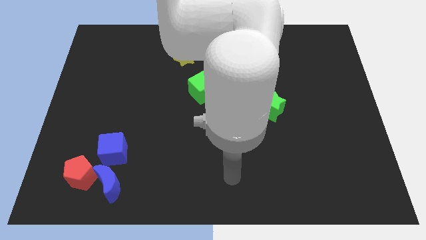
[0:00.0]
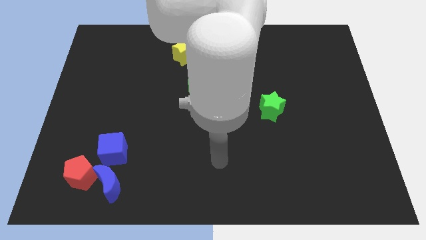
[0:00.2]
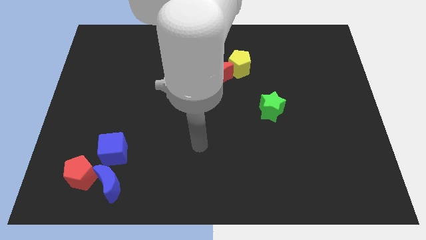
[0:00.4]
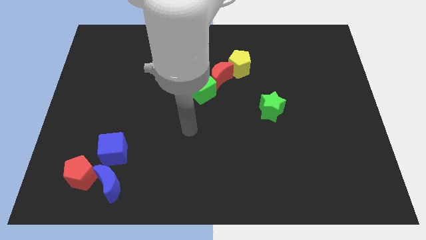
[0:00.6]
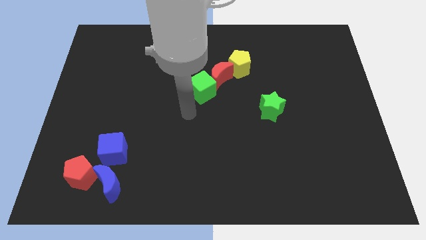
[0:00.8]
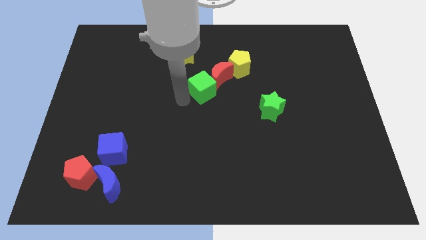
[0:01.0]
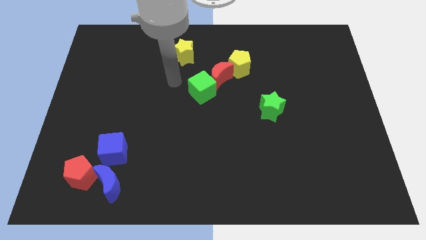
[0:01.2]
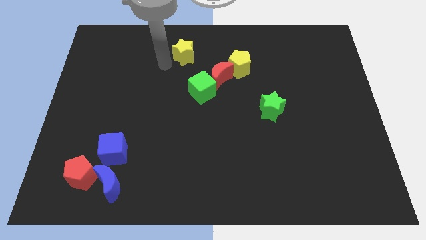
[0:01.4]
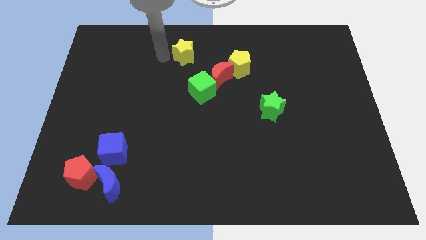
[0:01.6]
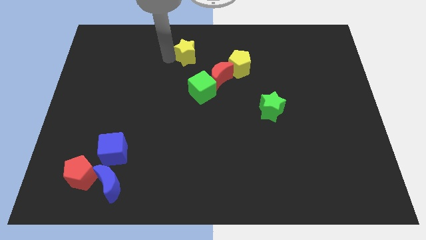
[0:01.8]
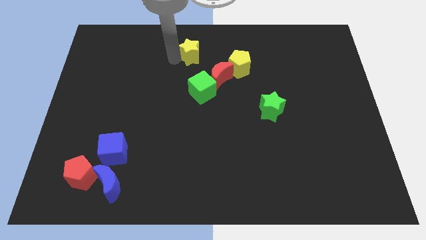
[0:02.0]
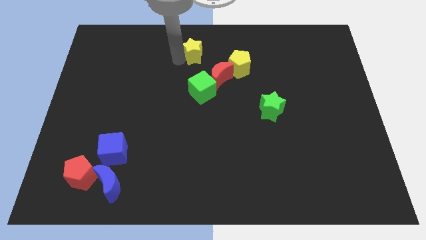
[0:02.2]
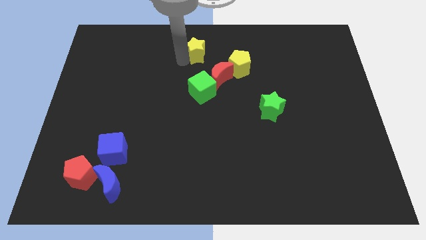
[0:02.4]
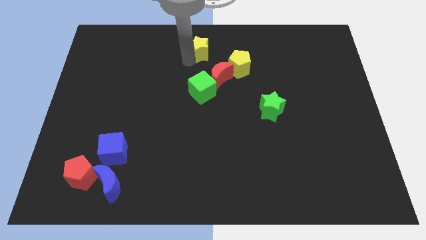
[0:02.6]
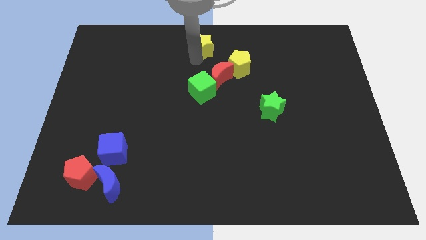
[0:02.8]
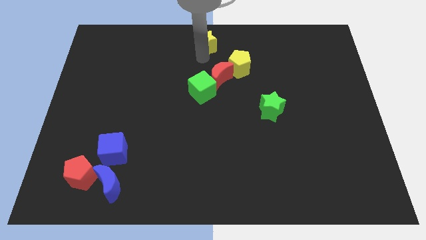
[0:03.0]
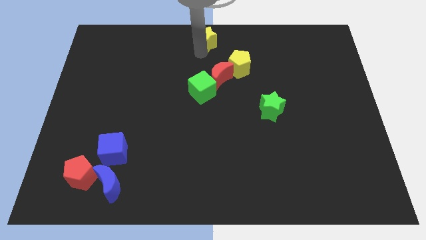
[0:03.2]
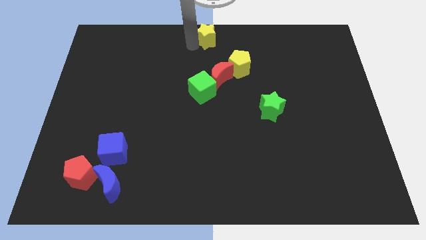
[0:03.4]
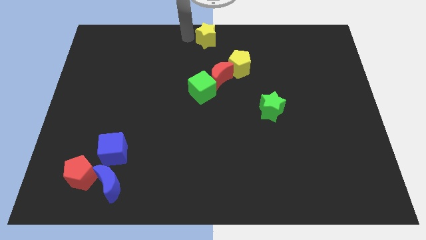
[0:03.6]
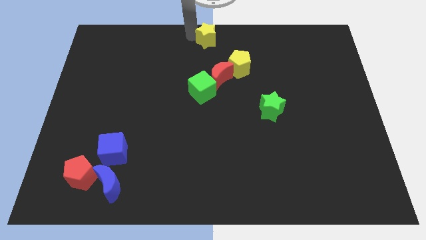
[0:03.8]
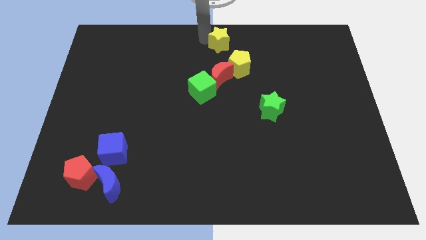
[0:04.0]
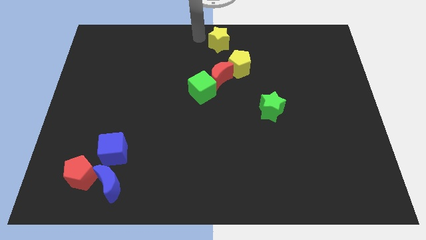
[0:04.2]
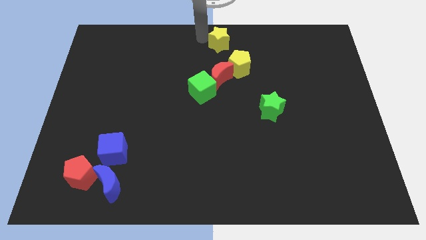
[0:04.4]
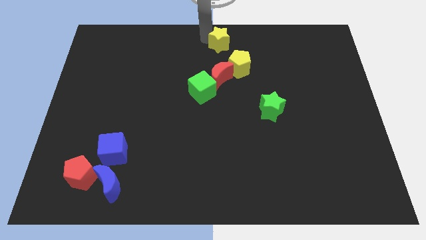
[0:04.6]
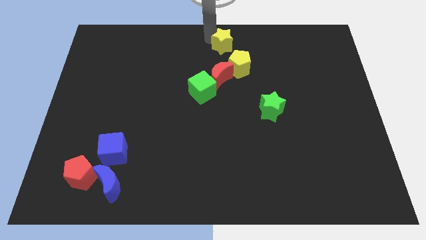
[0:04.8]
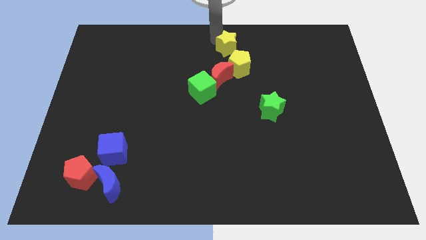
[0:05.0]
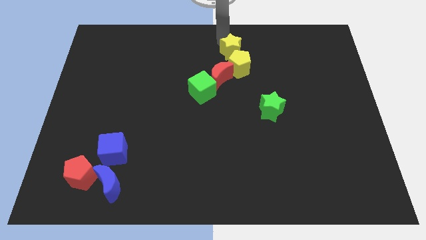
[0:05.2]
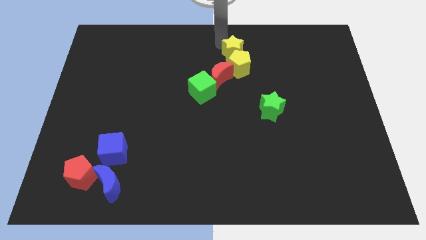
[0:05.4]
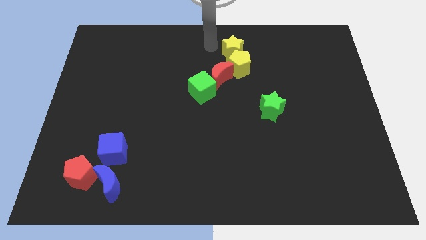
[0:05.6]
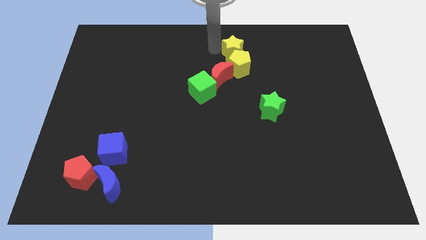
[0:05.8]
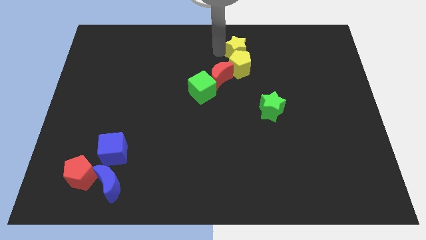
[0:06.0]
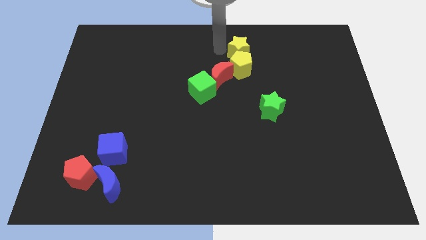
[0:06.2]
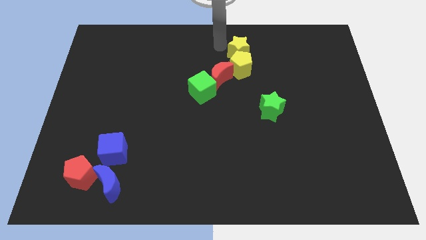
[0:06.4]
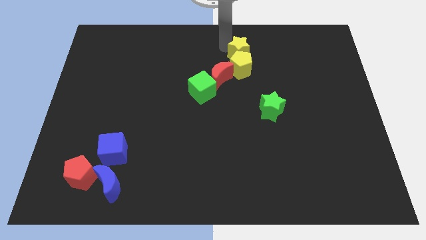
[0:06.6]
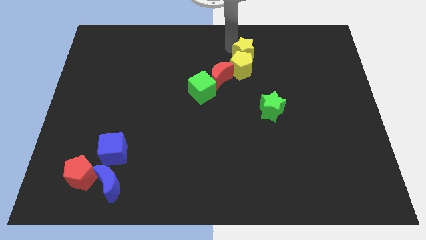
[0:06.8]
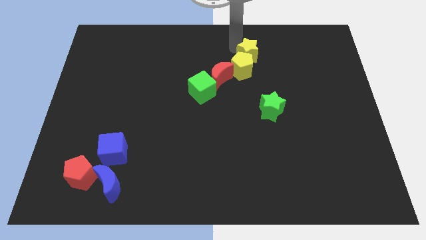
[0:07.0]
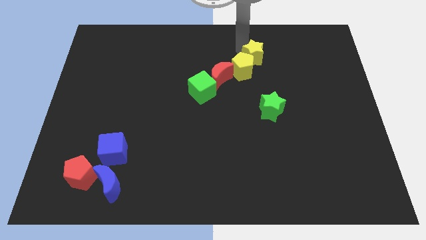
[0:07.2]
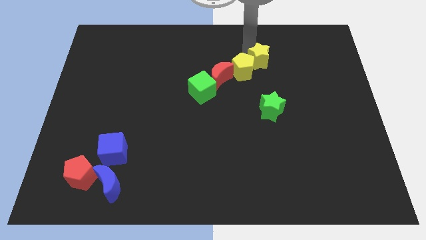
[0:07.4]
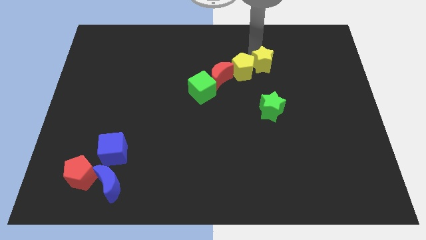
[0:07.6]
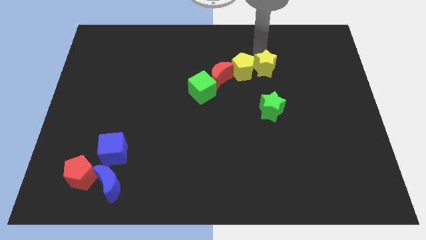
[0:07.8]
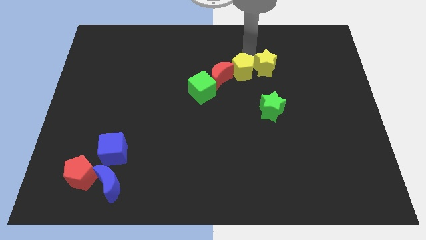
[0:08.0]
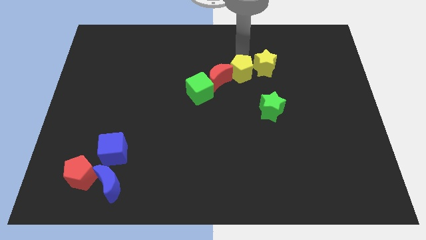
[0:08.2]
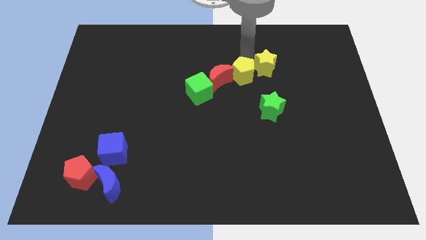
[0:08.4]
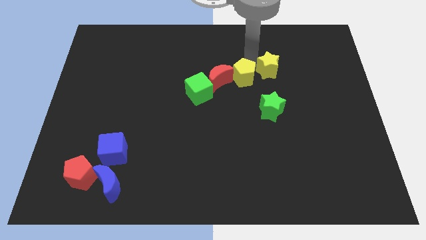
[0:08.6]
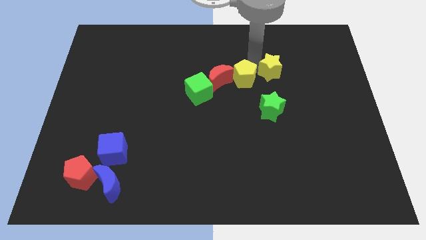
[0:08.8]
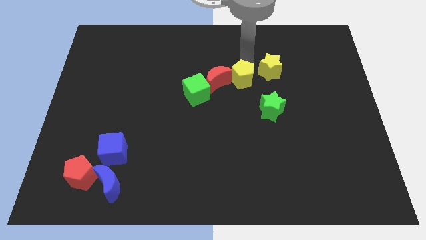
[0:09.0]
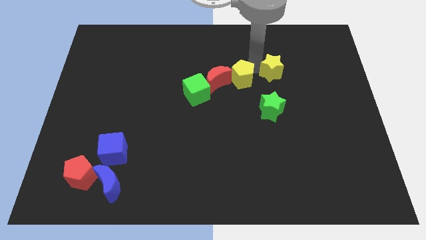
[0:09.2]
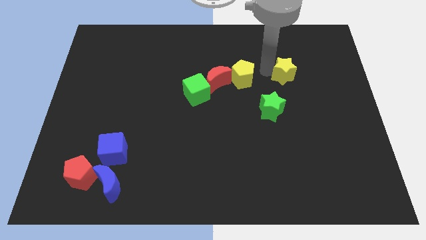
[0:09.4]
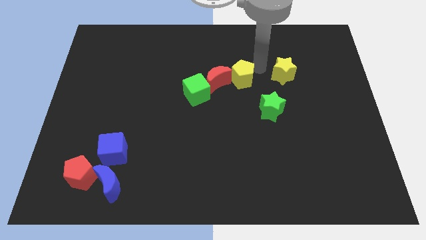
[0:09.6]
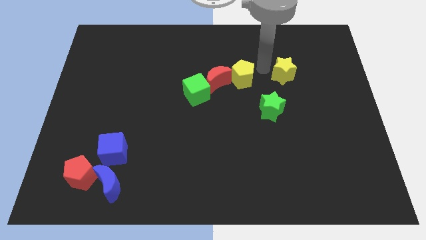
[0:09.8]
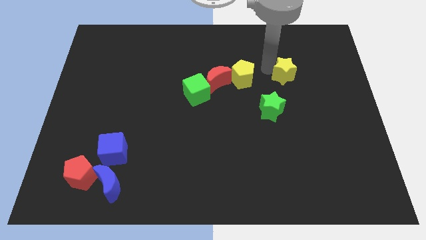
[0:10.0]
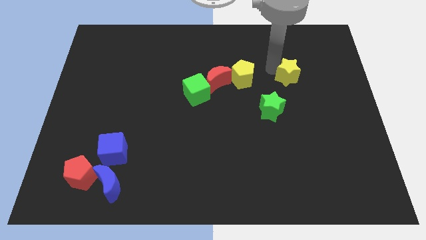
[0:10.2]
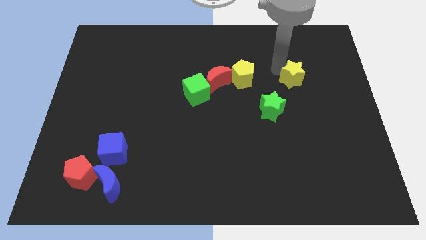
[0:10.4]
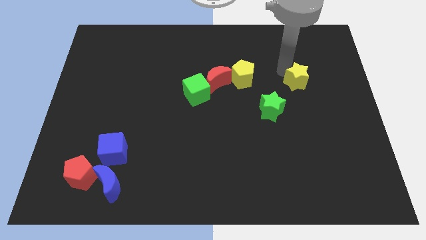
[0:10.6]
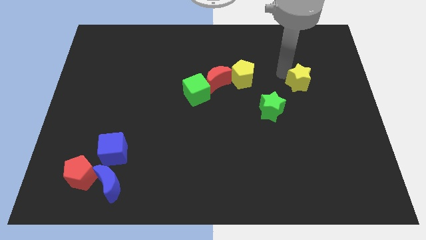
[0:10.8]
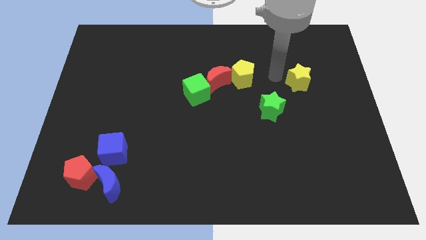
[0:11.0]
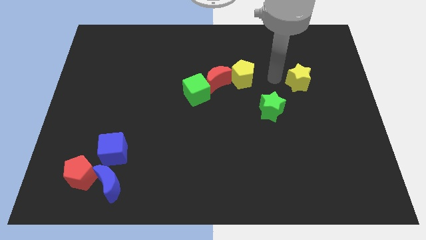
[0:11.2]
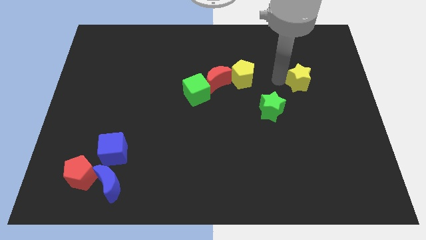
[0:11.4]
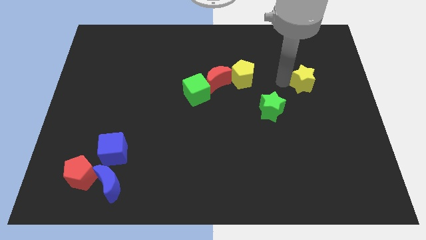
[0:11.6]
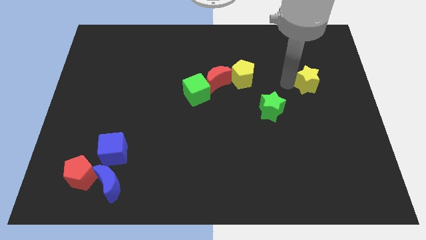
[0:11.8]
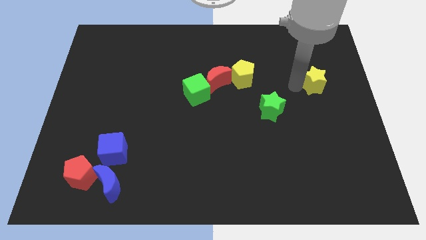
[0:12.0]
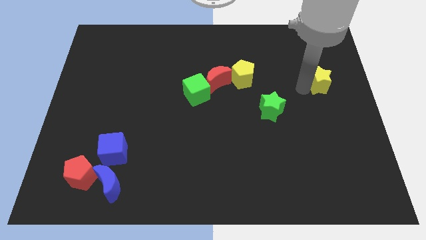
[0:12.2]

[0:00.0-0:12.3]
push the yellow star to the right side

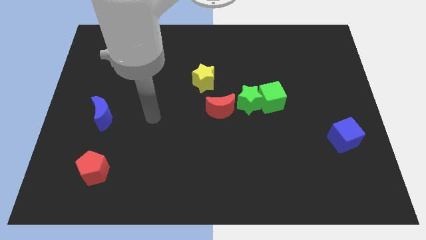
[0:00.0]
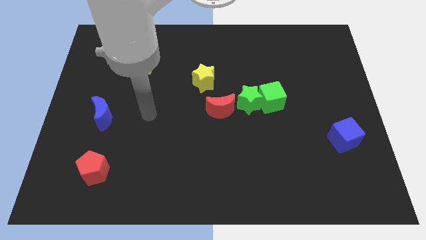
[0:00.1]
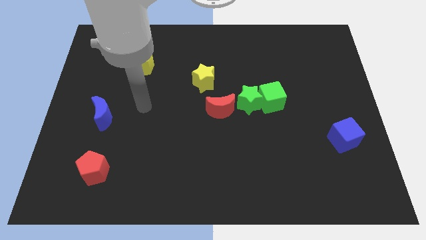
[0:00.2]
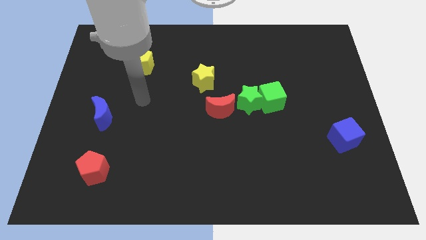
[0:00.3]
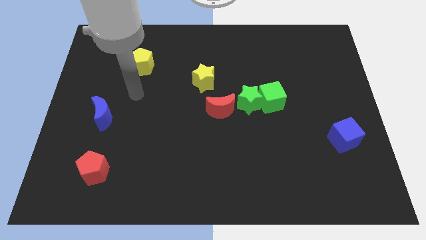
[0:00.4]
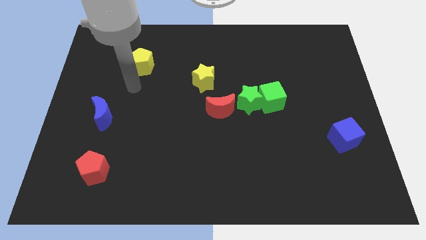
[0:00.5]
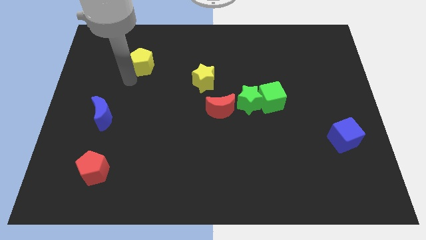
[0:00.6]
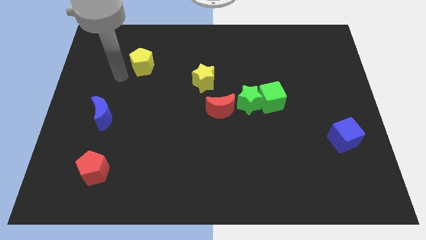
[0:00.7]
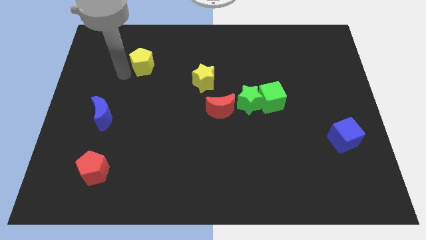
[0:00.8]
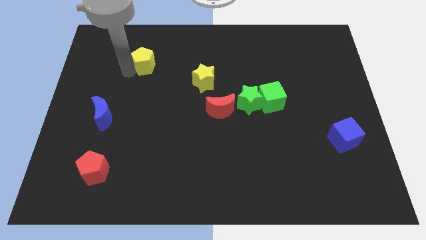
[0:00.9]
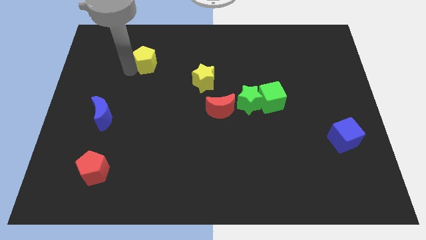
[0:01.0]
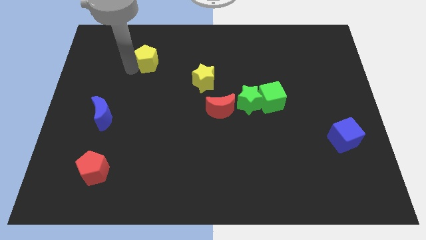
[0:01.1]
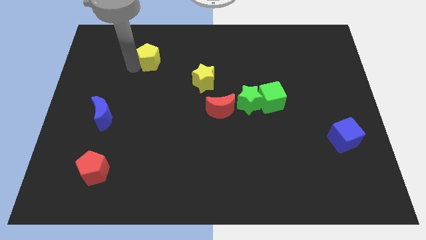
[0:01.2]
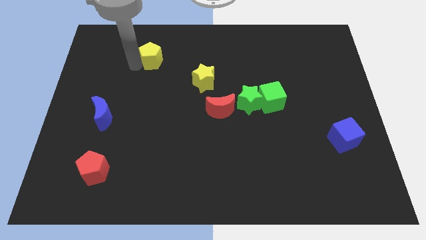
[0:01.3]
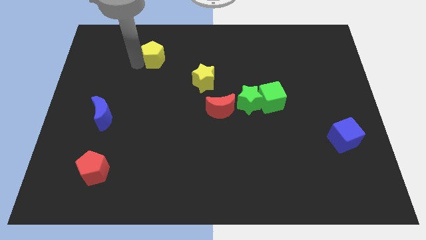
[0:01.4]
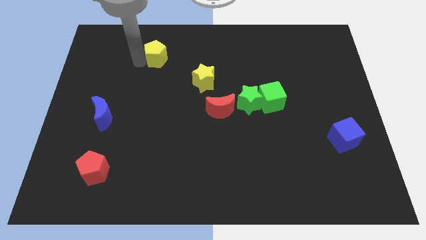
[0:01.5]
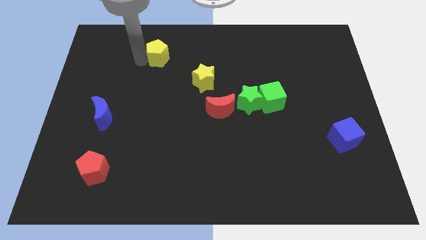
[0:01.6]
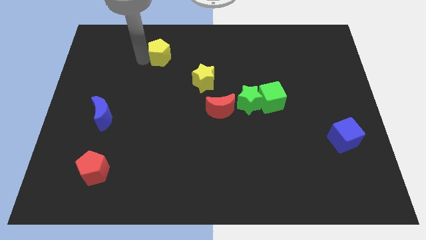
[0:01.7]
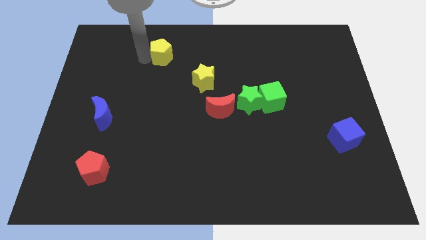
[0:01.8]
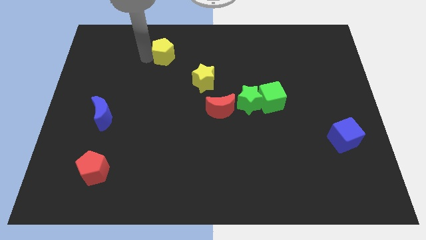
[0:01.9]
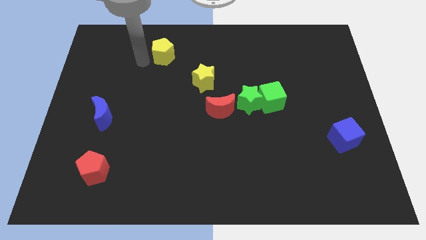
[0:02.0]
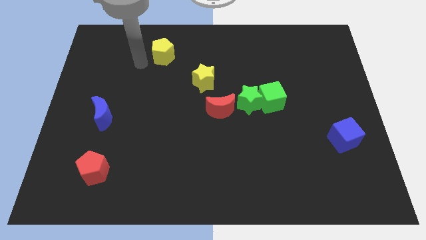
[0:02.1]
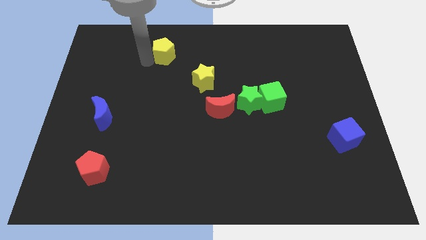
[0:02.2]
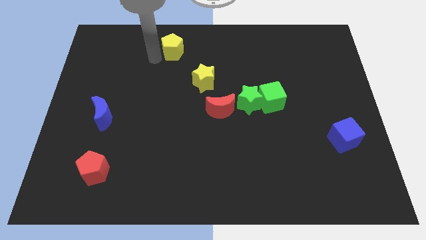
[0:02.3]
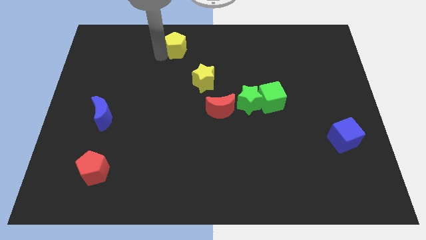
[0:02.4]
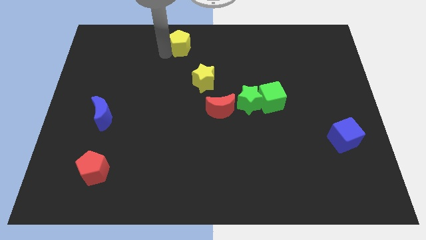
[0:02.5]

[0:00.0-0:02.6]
push the yellow pentagon to the top side
